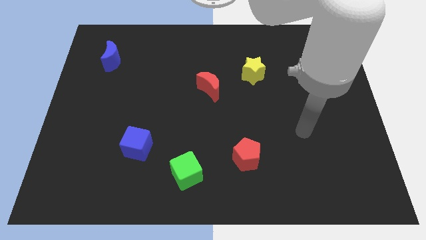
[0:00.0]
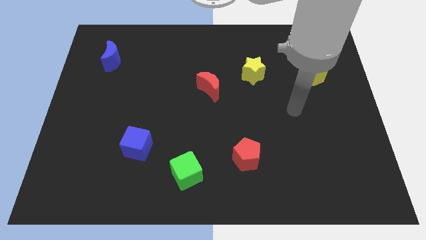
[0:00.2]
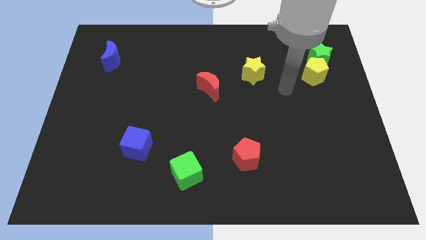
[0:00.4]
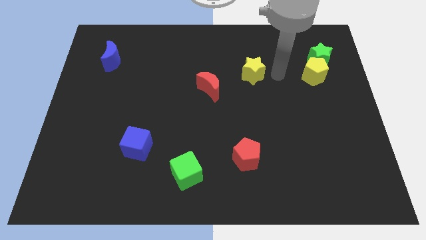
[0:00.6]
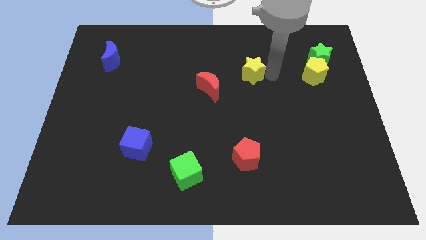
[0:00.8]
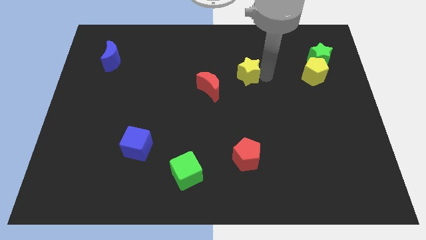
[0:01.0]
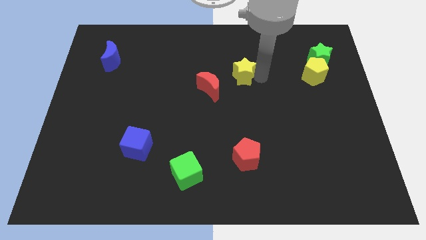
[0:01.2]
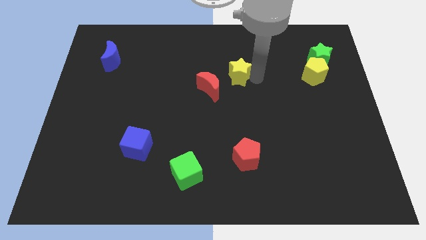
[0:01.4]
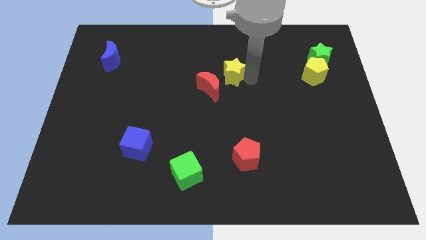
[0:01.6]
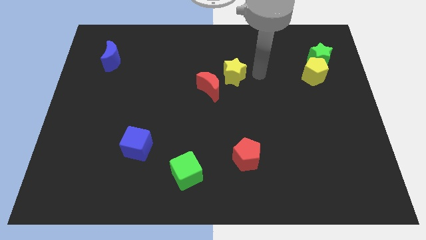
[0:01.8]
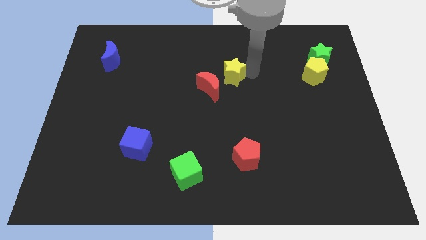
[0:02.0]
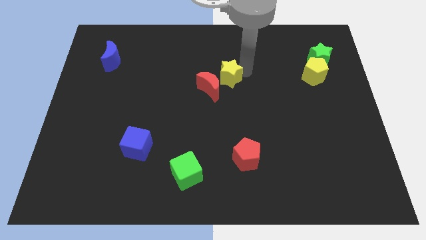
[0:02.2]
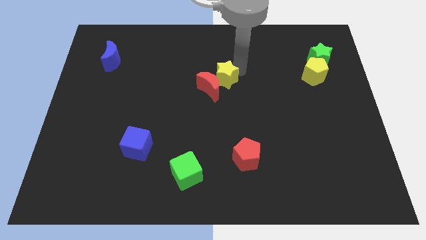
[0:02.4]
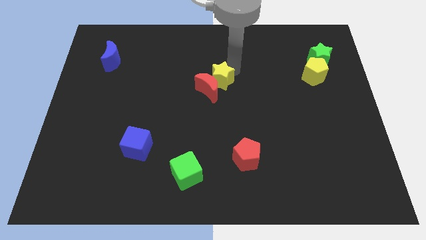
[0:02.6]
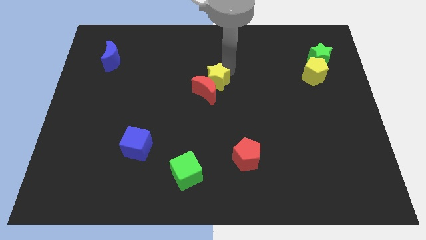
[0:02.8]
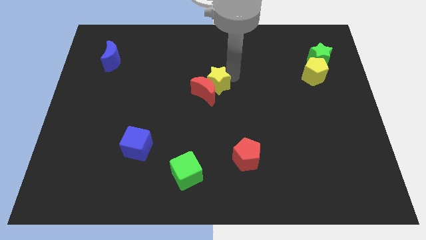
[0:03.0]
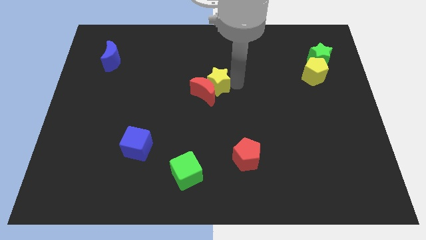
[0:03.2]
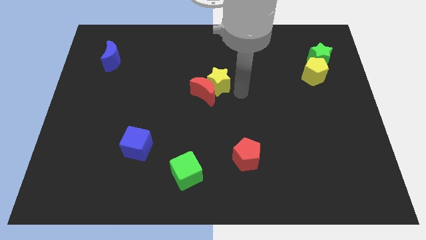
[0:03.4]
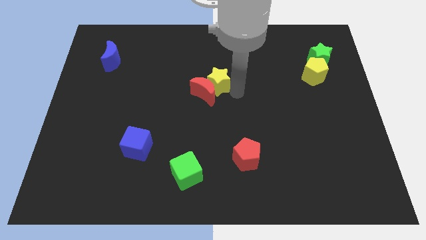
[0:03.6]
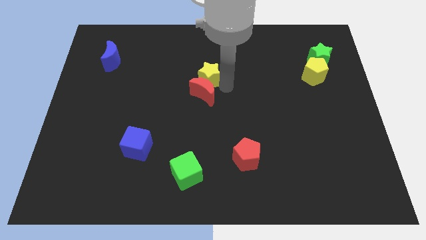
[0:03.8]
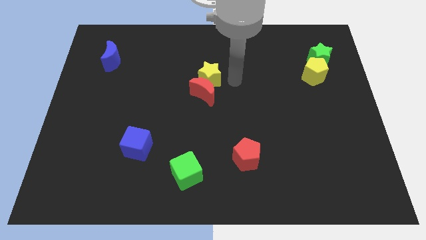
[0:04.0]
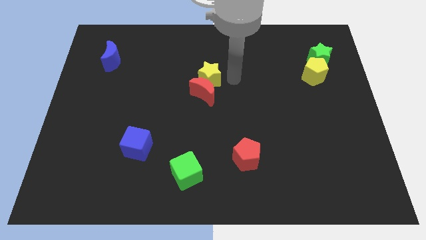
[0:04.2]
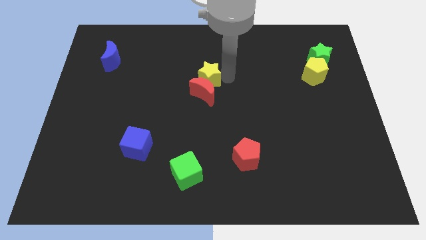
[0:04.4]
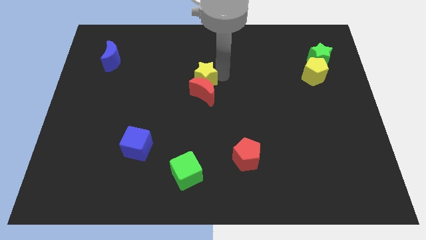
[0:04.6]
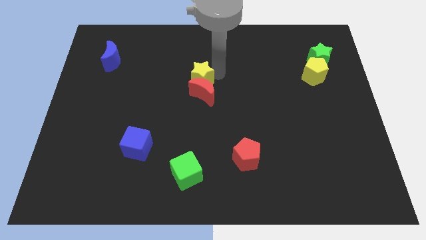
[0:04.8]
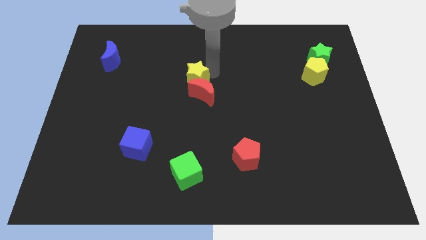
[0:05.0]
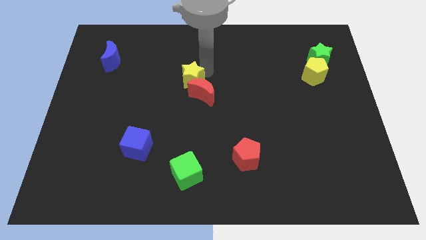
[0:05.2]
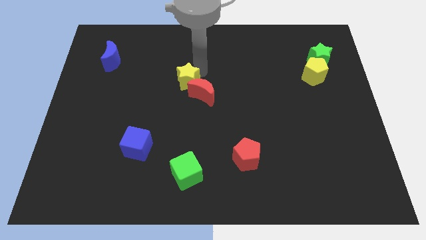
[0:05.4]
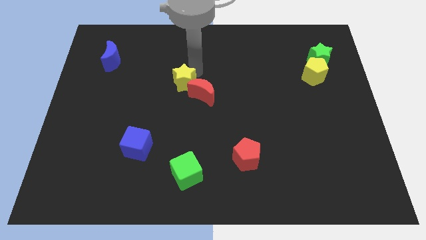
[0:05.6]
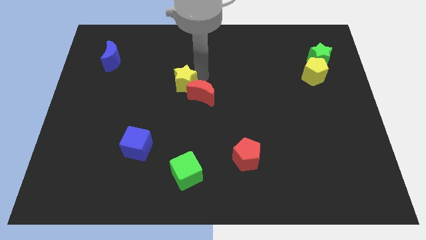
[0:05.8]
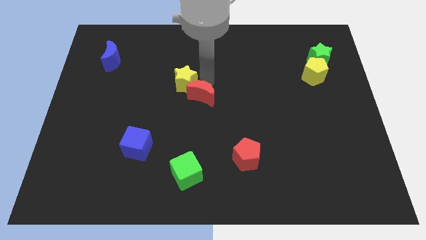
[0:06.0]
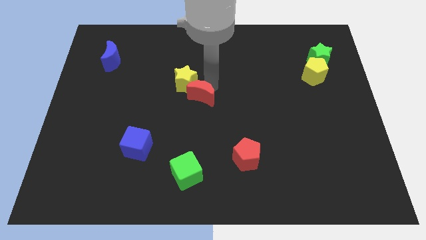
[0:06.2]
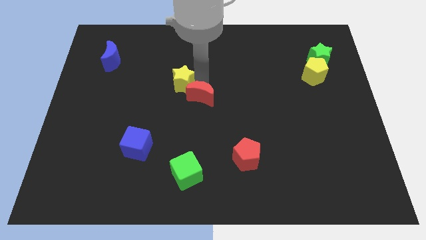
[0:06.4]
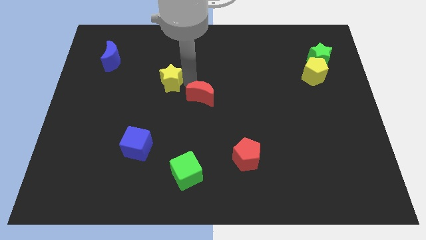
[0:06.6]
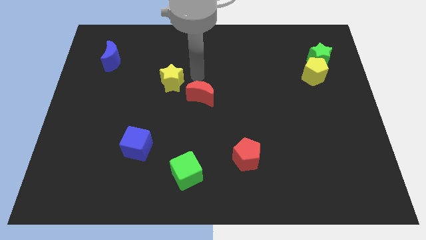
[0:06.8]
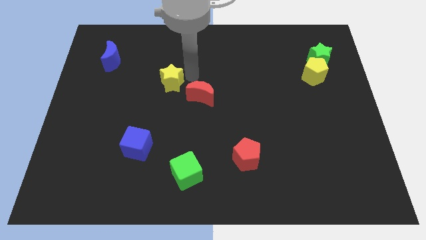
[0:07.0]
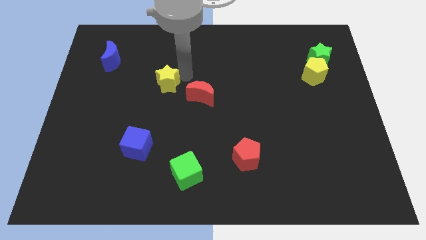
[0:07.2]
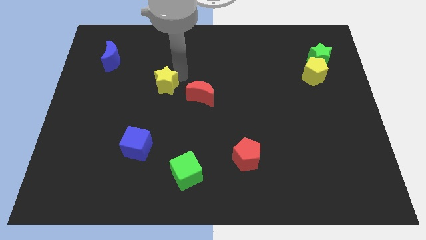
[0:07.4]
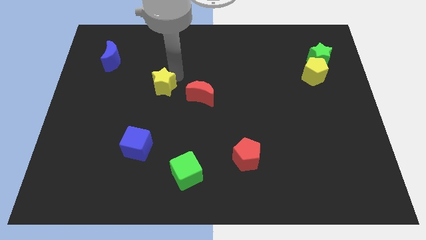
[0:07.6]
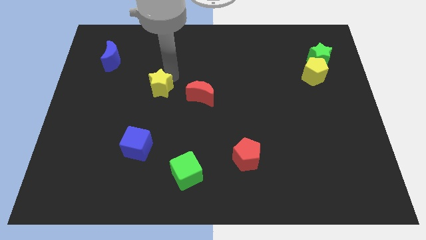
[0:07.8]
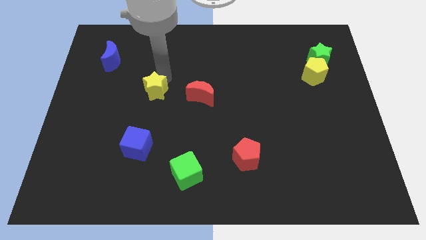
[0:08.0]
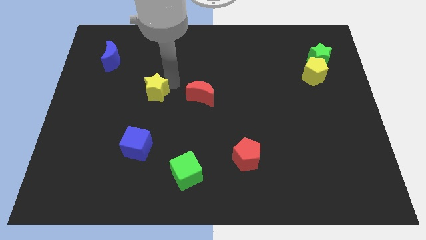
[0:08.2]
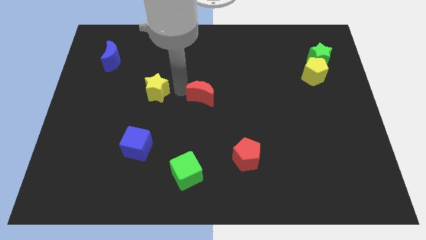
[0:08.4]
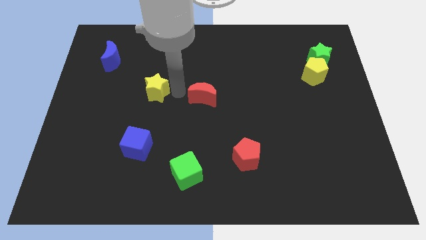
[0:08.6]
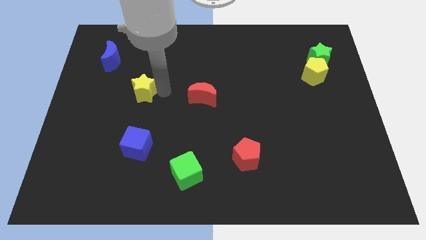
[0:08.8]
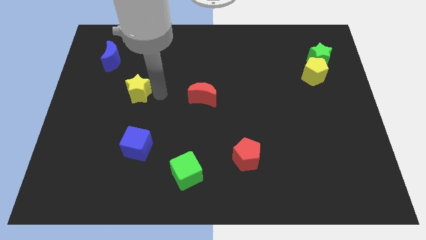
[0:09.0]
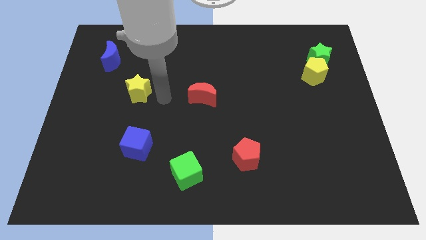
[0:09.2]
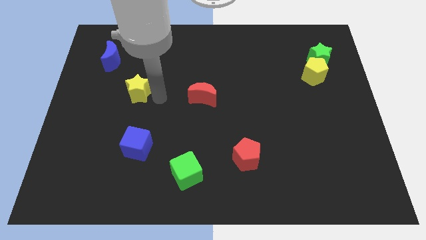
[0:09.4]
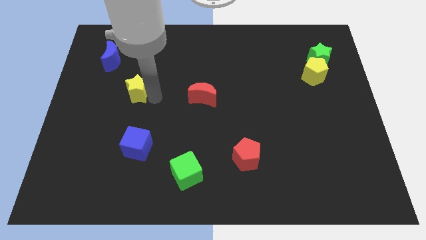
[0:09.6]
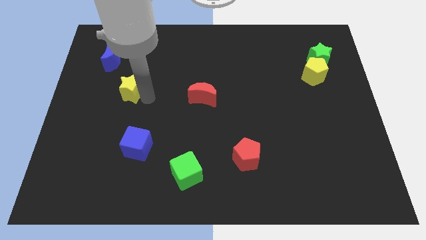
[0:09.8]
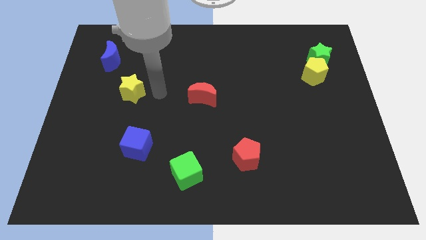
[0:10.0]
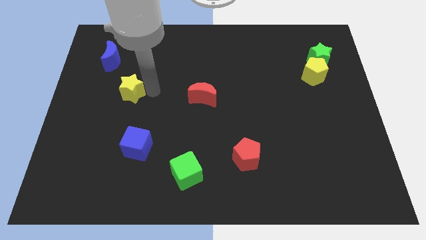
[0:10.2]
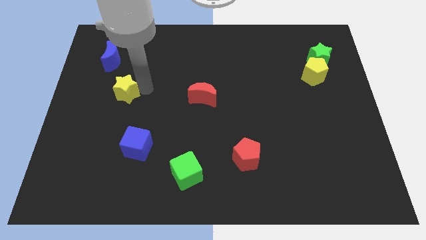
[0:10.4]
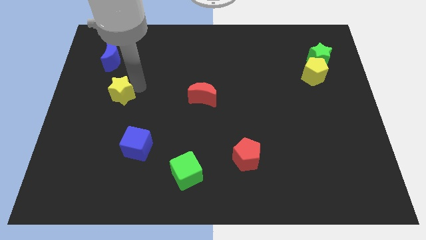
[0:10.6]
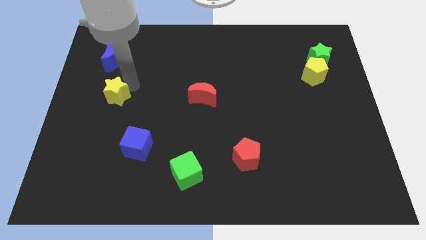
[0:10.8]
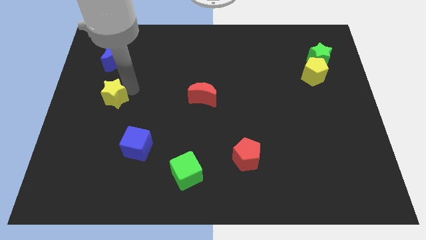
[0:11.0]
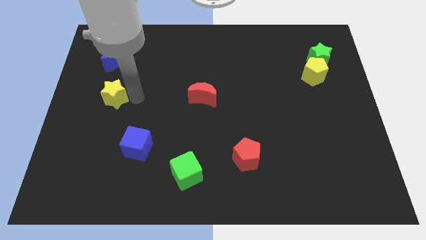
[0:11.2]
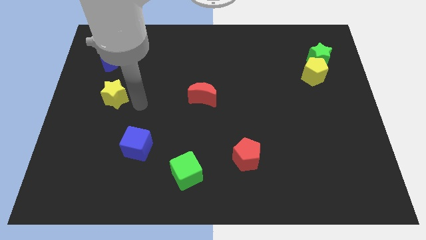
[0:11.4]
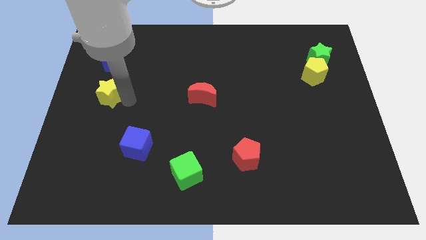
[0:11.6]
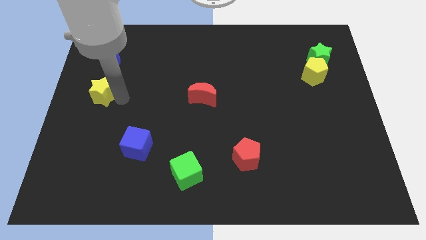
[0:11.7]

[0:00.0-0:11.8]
put the yellow star to the left side of the board
